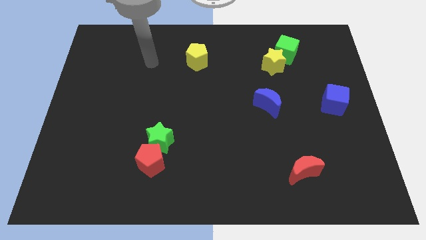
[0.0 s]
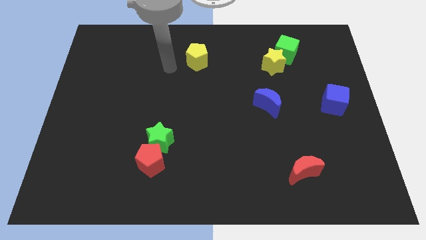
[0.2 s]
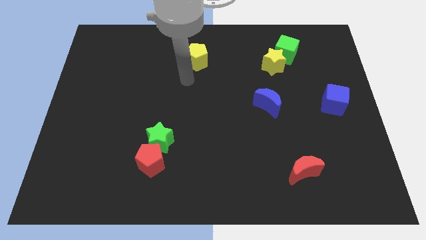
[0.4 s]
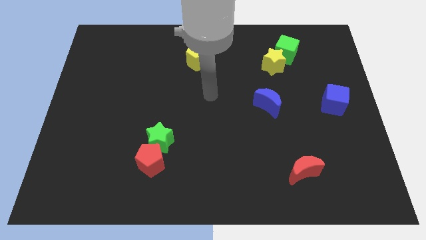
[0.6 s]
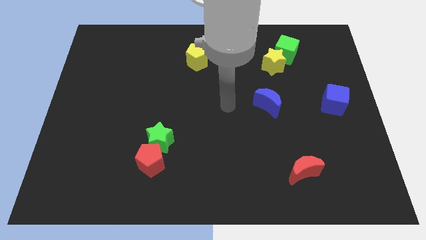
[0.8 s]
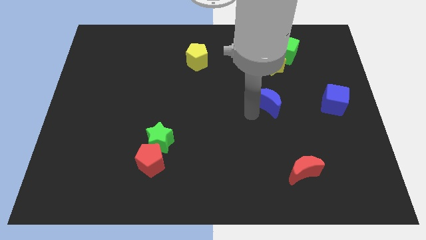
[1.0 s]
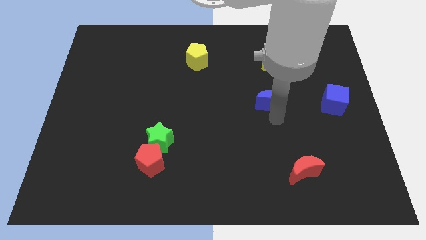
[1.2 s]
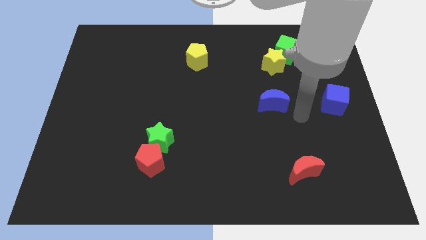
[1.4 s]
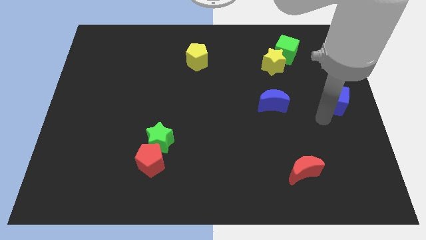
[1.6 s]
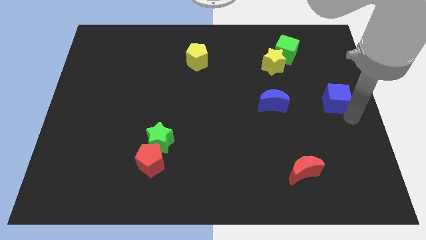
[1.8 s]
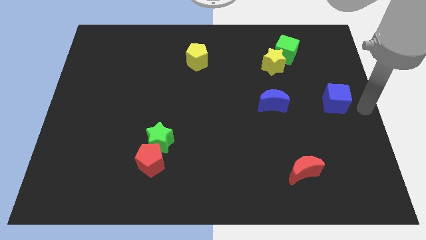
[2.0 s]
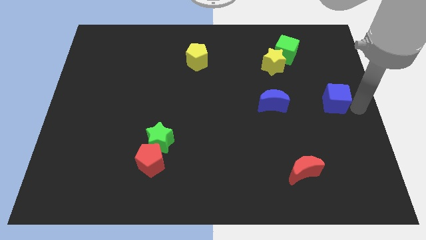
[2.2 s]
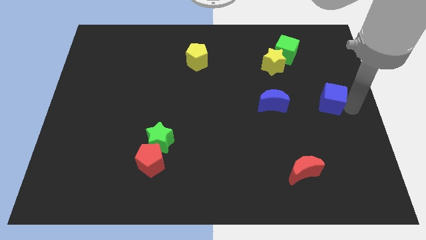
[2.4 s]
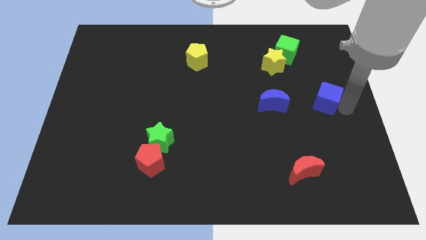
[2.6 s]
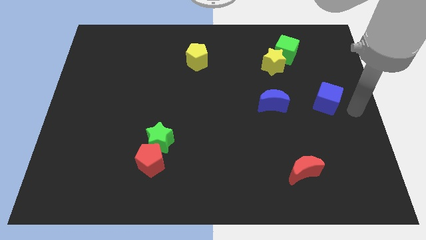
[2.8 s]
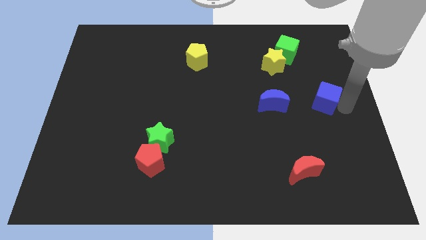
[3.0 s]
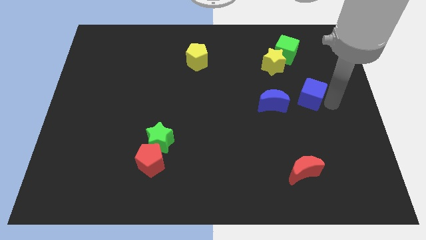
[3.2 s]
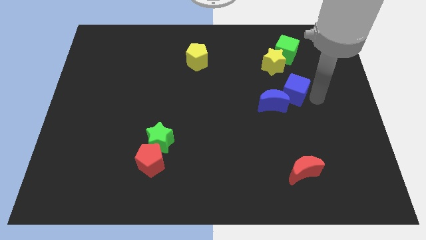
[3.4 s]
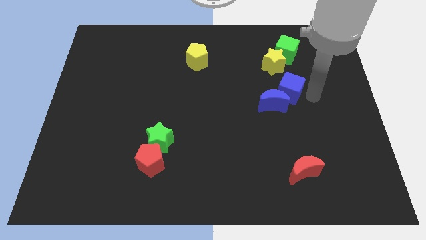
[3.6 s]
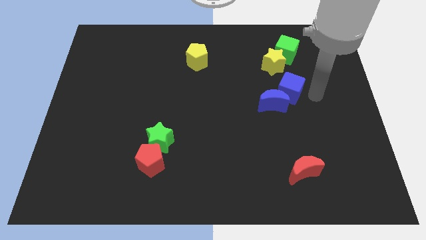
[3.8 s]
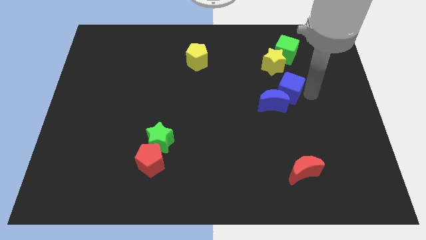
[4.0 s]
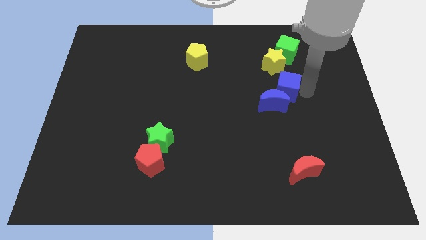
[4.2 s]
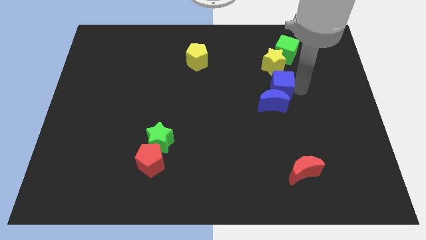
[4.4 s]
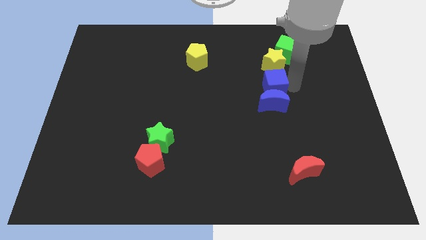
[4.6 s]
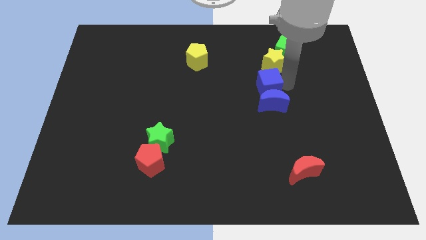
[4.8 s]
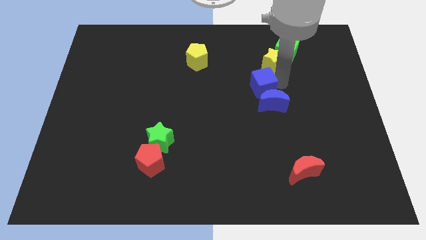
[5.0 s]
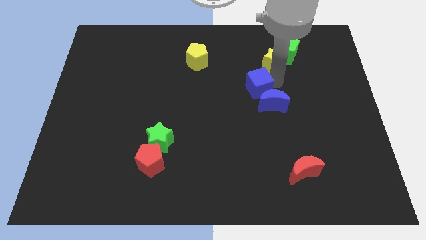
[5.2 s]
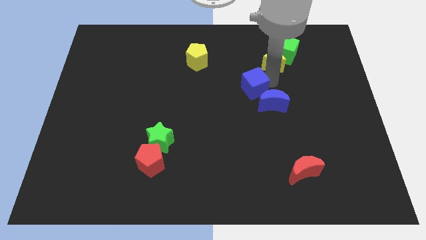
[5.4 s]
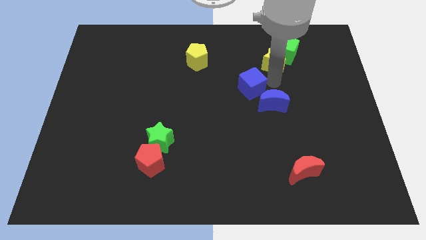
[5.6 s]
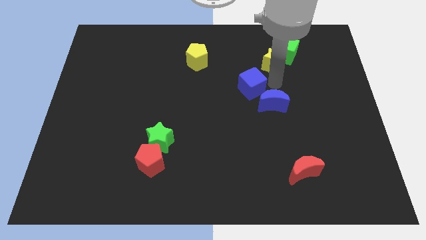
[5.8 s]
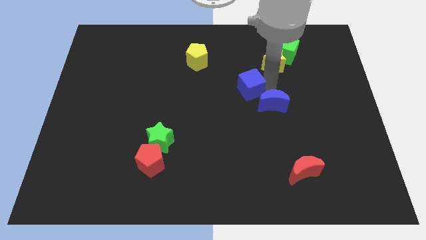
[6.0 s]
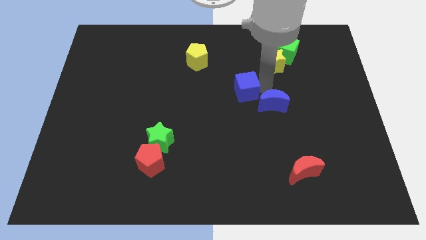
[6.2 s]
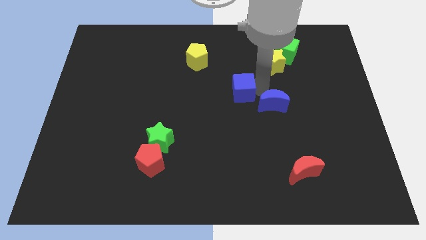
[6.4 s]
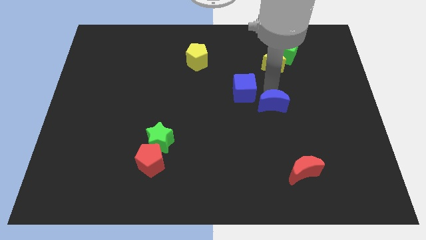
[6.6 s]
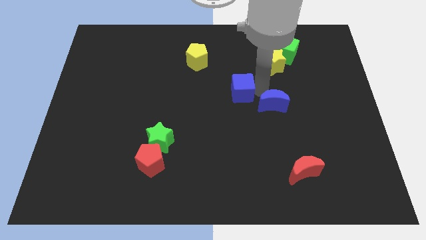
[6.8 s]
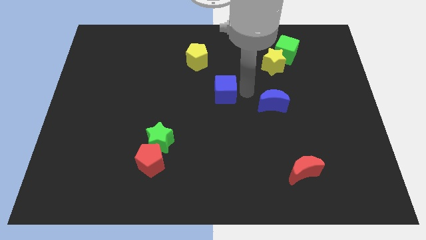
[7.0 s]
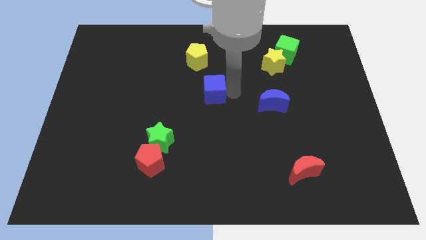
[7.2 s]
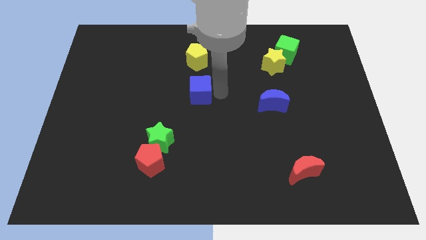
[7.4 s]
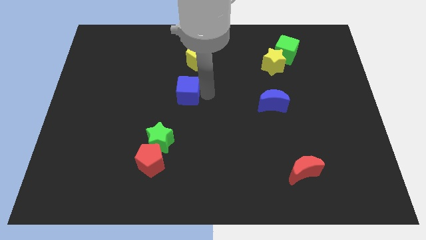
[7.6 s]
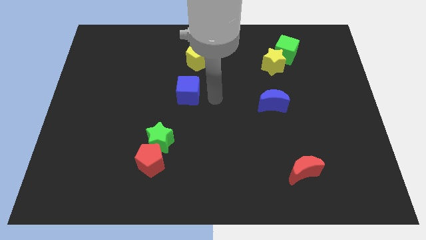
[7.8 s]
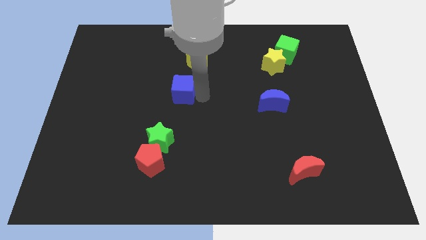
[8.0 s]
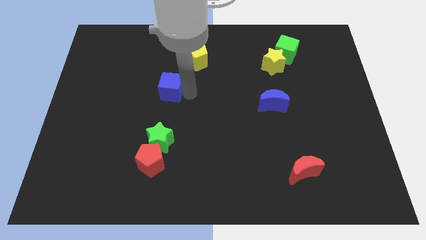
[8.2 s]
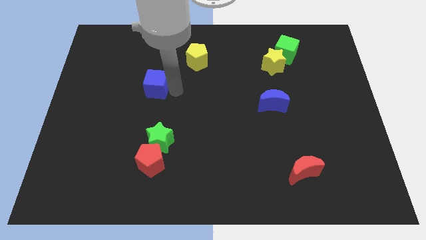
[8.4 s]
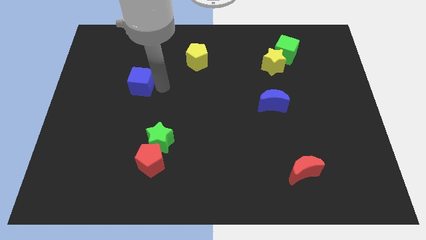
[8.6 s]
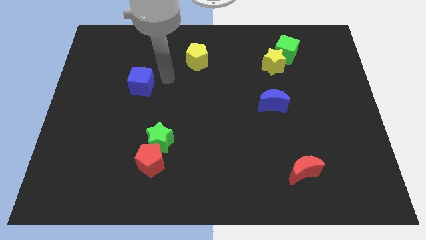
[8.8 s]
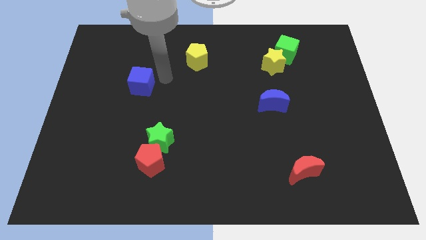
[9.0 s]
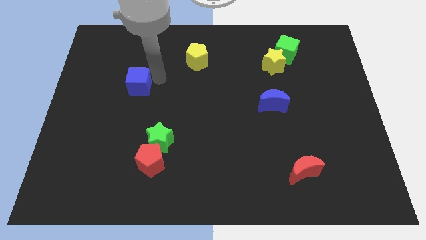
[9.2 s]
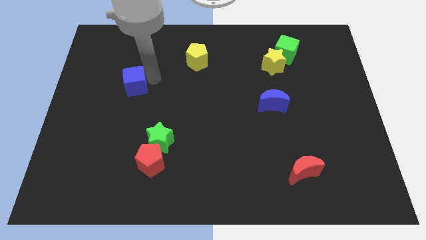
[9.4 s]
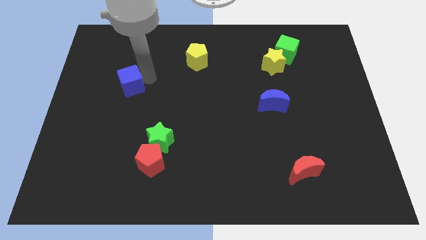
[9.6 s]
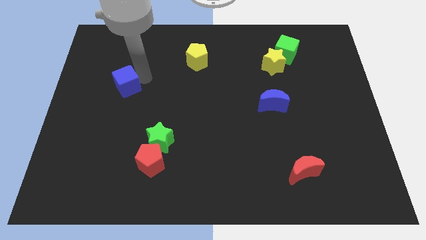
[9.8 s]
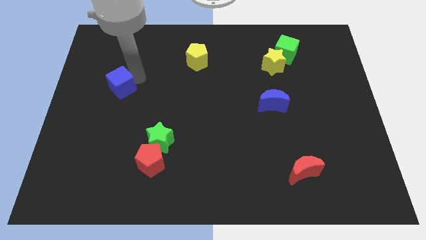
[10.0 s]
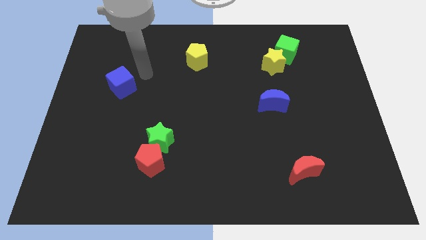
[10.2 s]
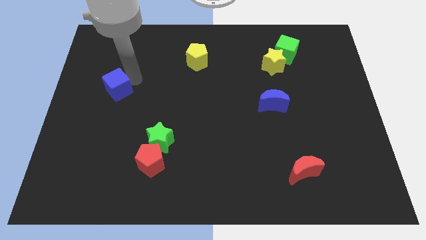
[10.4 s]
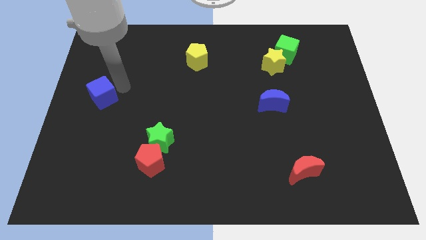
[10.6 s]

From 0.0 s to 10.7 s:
put the blue cube to the left side

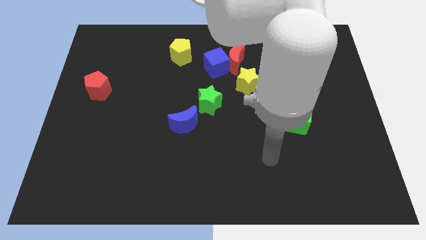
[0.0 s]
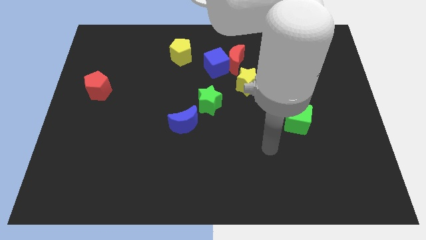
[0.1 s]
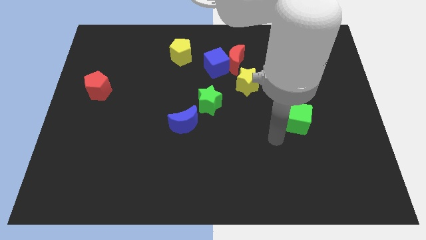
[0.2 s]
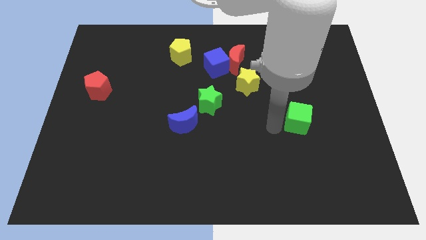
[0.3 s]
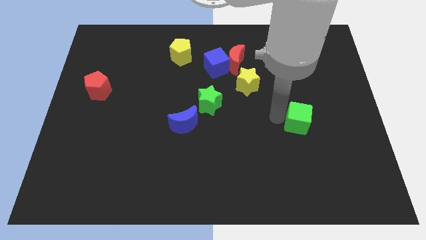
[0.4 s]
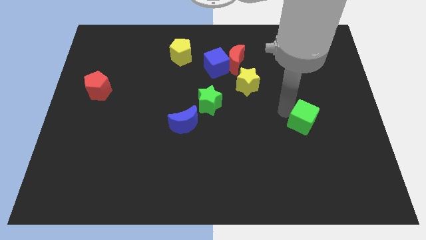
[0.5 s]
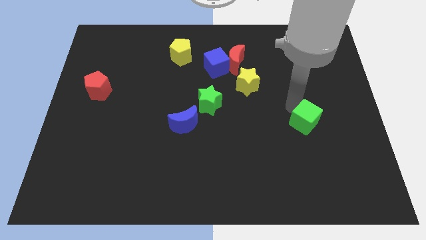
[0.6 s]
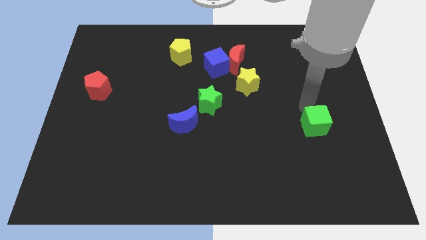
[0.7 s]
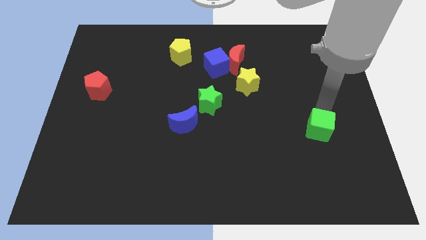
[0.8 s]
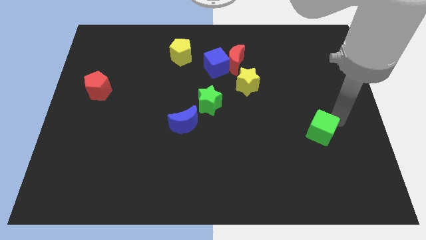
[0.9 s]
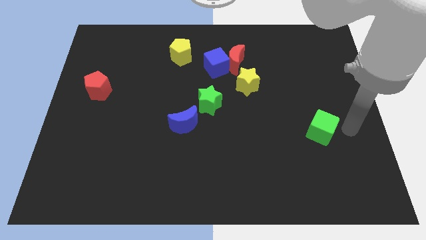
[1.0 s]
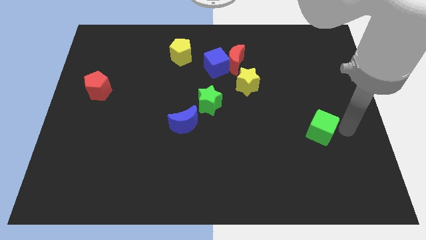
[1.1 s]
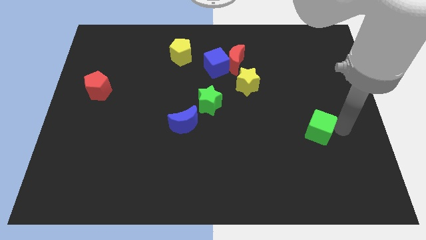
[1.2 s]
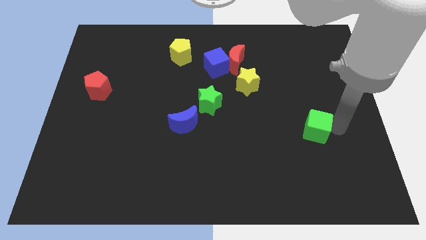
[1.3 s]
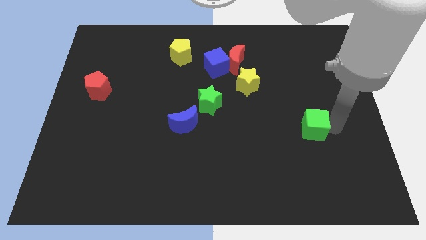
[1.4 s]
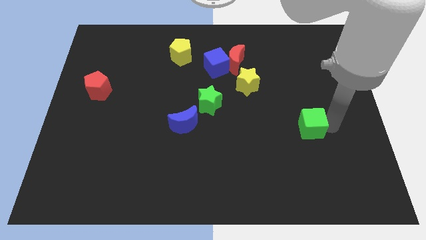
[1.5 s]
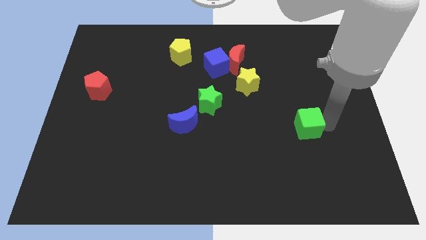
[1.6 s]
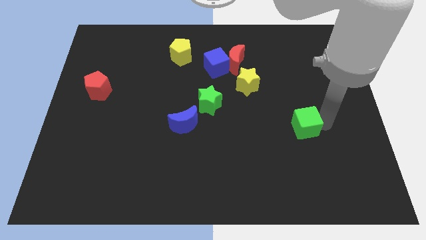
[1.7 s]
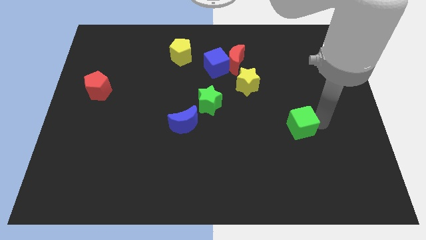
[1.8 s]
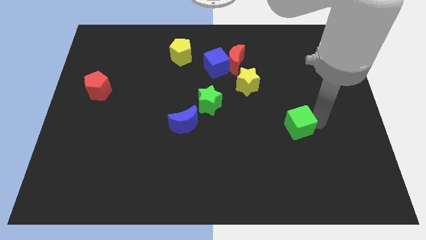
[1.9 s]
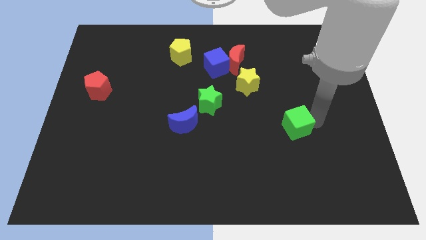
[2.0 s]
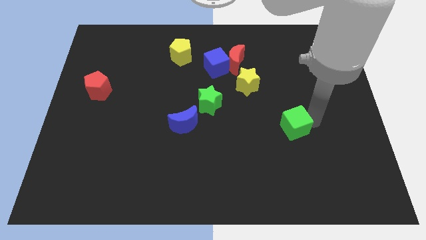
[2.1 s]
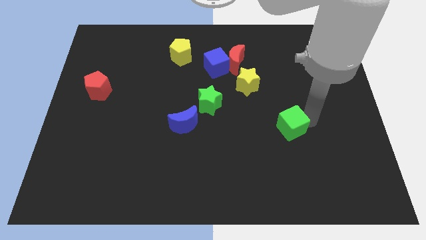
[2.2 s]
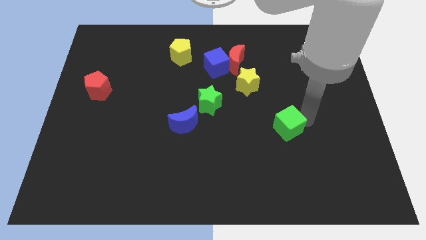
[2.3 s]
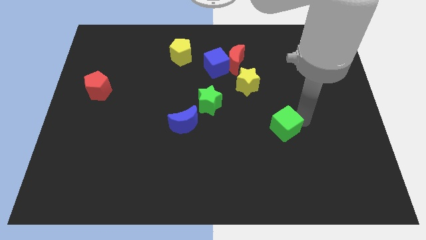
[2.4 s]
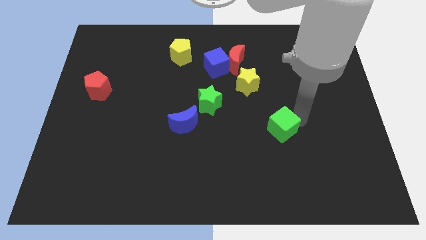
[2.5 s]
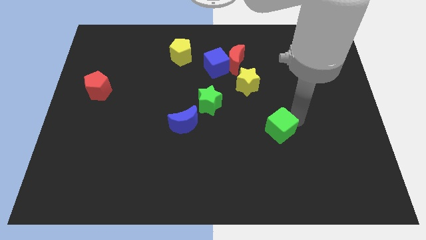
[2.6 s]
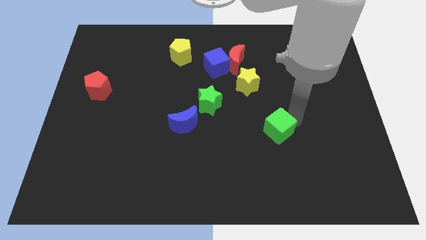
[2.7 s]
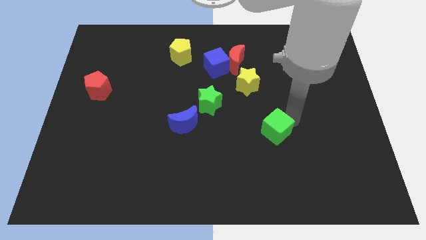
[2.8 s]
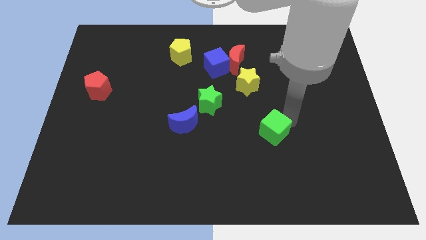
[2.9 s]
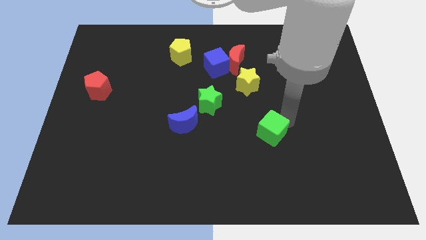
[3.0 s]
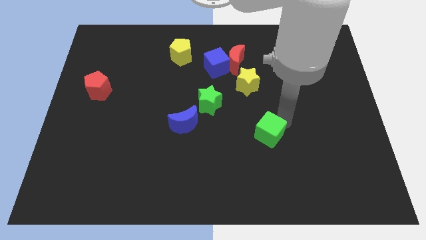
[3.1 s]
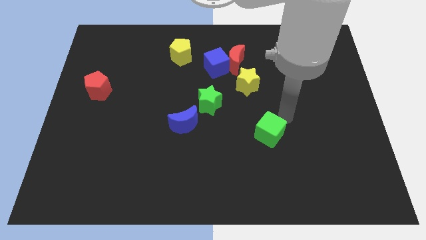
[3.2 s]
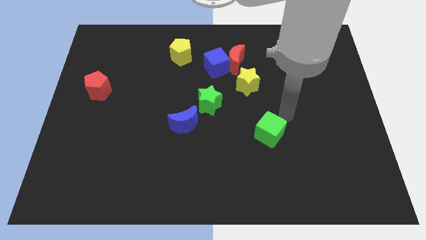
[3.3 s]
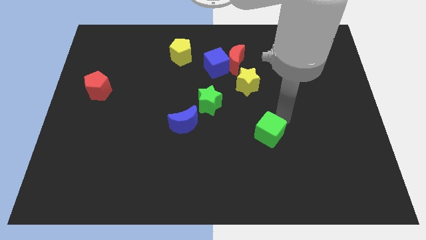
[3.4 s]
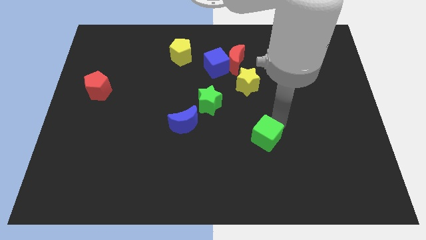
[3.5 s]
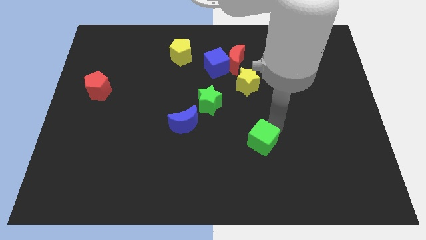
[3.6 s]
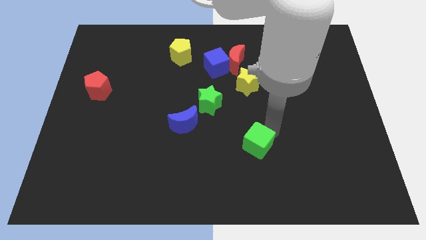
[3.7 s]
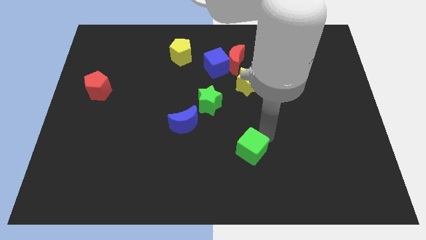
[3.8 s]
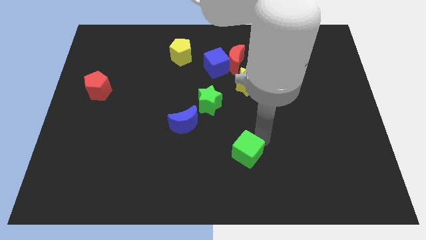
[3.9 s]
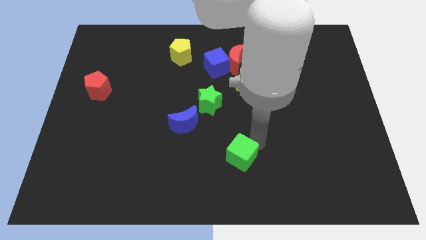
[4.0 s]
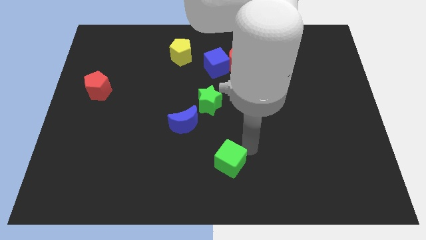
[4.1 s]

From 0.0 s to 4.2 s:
move the green cube to the bottom
